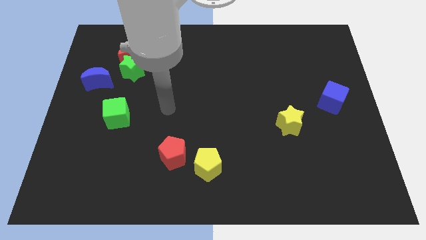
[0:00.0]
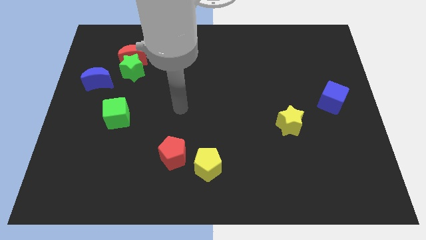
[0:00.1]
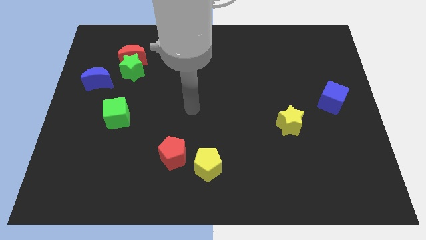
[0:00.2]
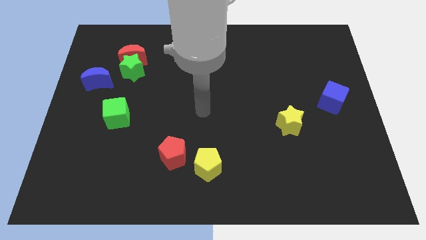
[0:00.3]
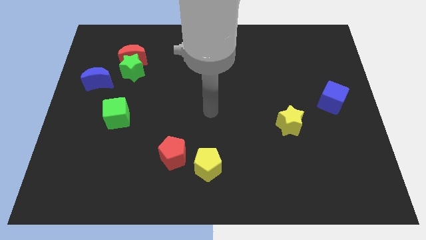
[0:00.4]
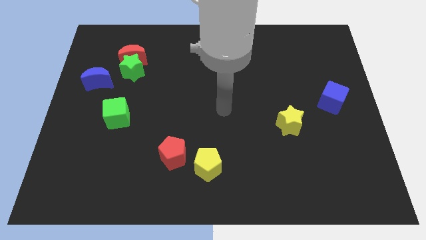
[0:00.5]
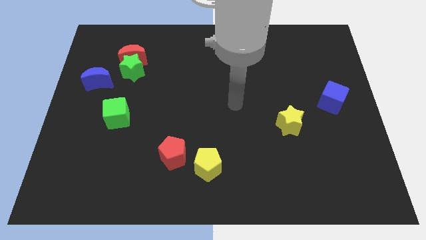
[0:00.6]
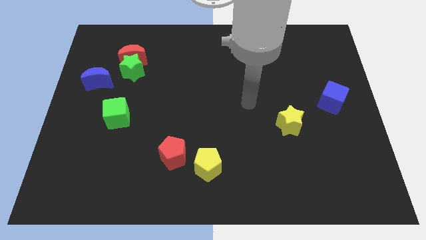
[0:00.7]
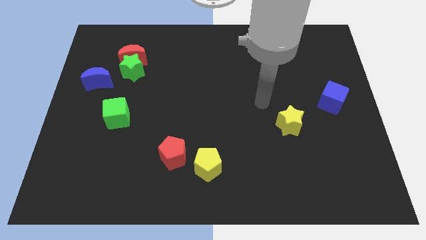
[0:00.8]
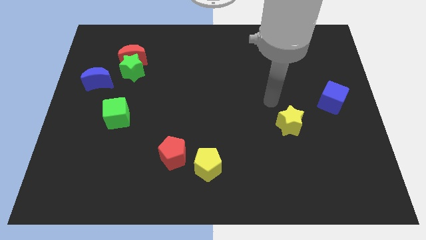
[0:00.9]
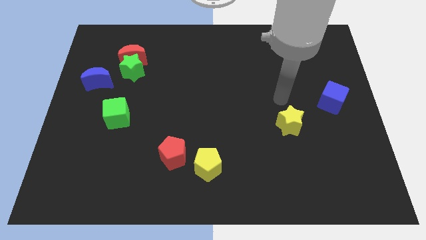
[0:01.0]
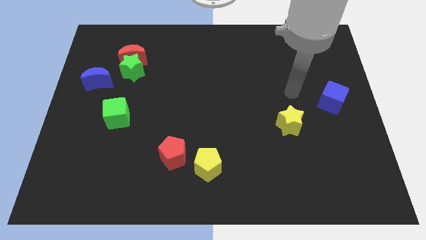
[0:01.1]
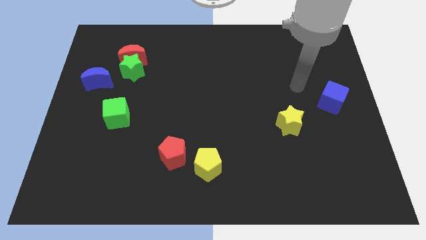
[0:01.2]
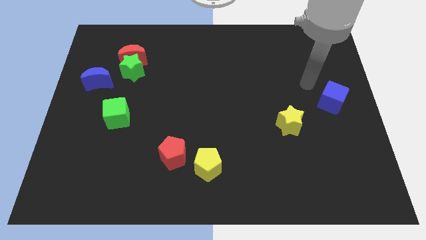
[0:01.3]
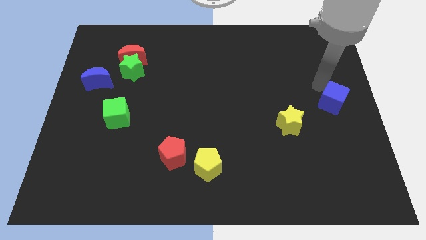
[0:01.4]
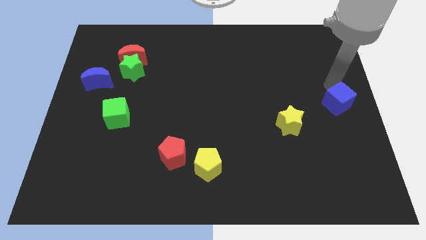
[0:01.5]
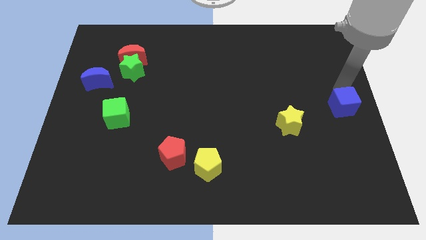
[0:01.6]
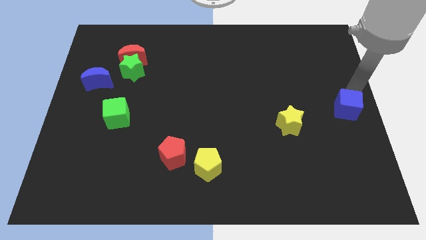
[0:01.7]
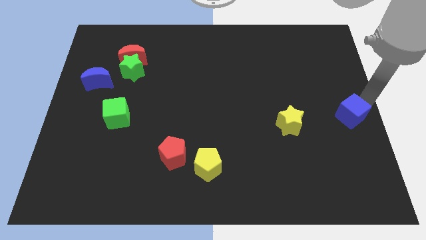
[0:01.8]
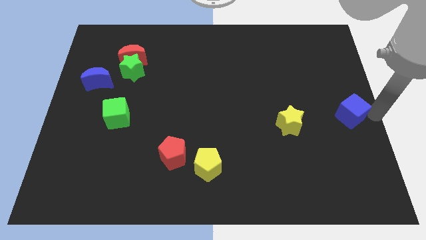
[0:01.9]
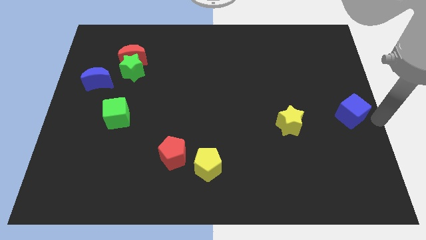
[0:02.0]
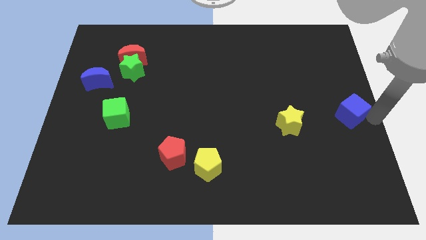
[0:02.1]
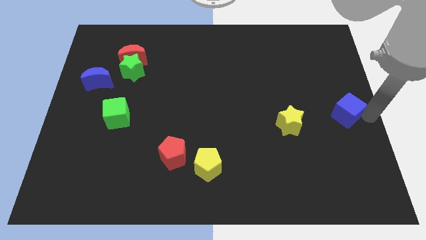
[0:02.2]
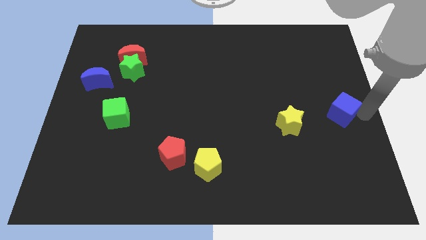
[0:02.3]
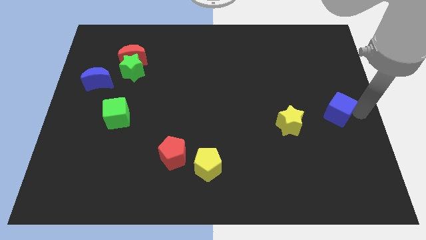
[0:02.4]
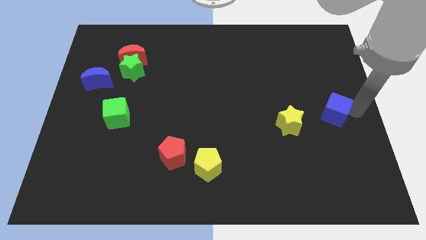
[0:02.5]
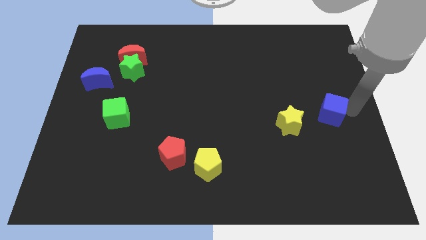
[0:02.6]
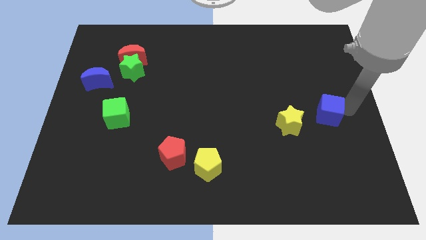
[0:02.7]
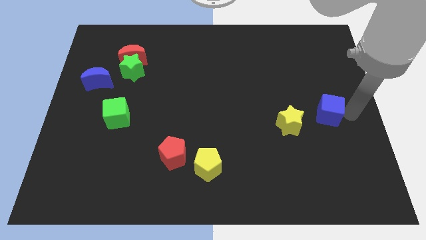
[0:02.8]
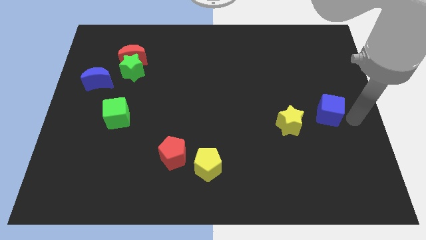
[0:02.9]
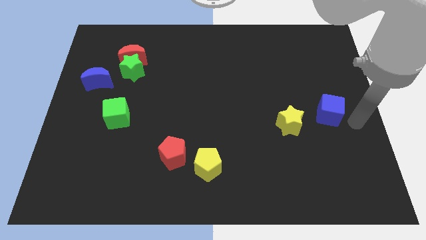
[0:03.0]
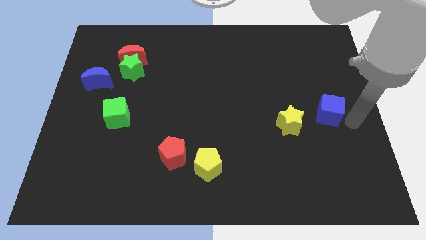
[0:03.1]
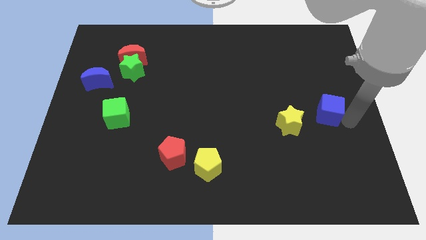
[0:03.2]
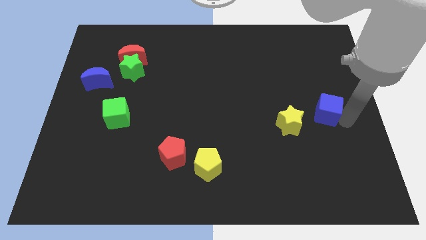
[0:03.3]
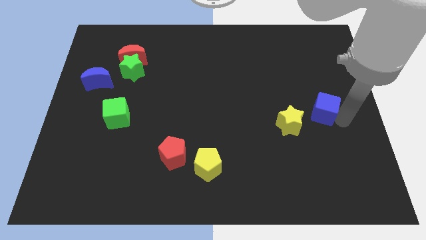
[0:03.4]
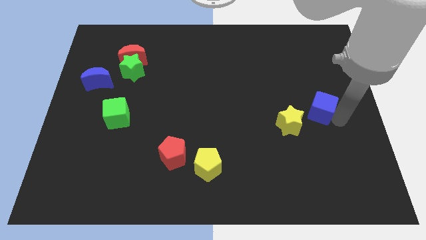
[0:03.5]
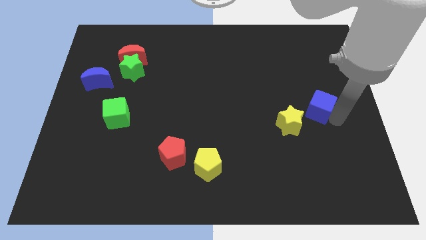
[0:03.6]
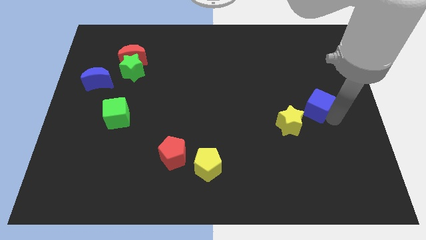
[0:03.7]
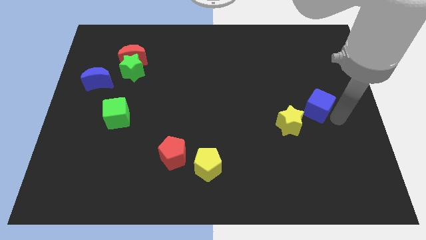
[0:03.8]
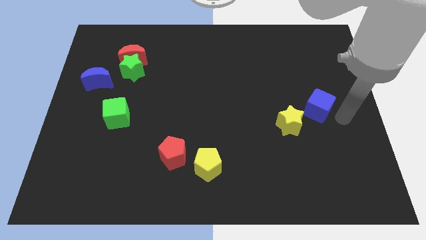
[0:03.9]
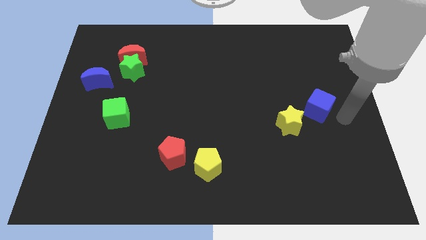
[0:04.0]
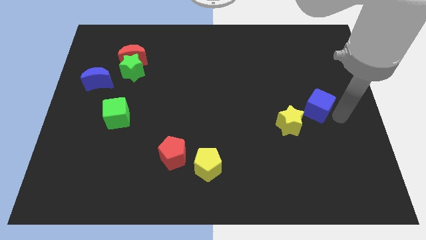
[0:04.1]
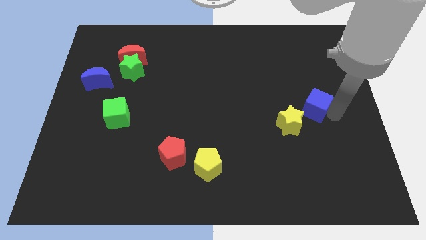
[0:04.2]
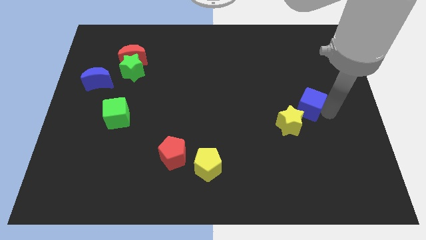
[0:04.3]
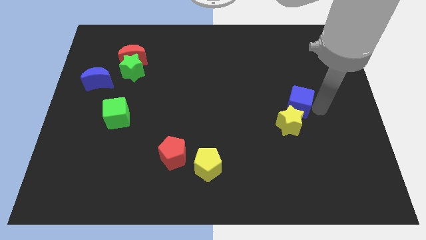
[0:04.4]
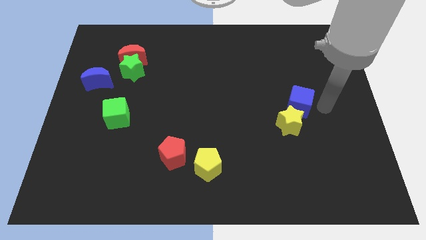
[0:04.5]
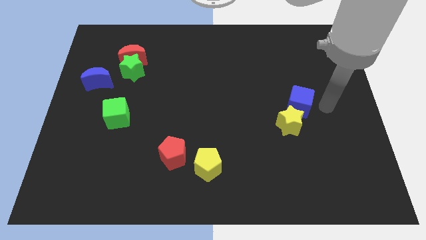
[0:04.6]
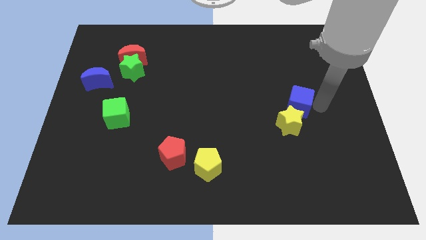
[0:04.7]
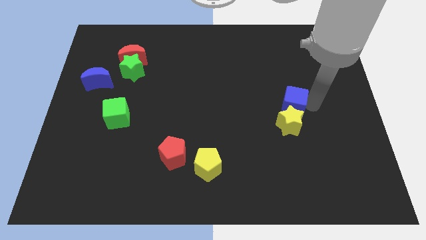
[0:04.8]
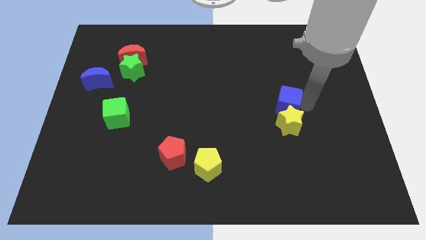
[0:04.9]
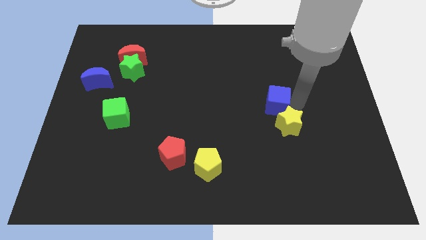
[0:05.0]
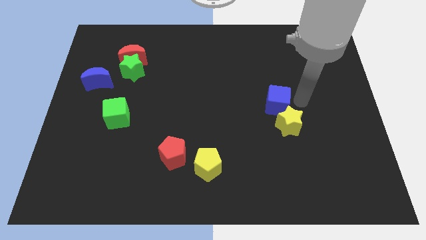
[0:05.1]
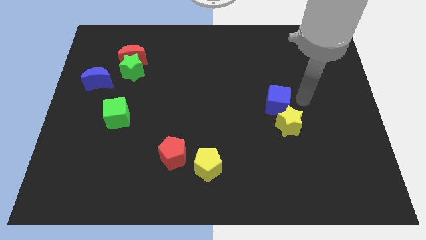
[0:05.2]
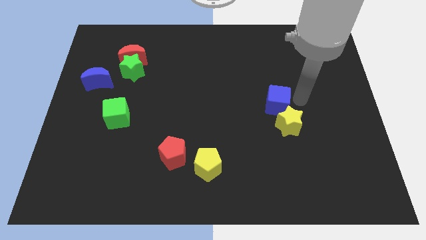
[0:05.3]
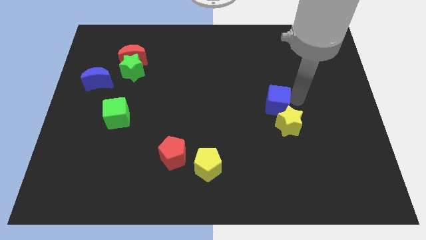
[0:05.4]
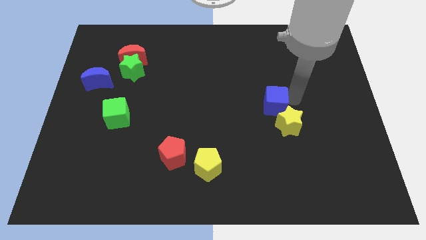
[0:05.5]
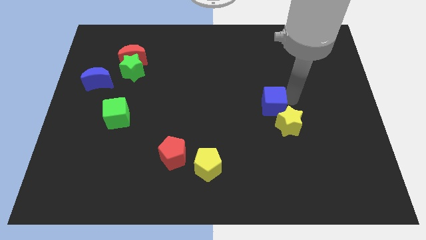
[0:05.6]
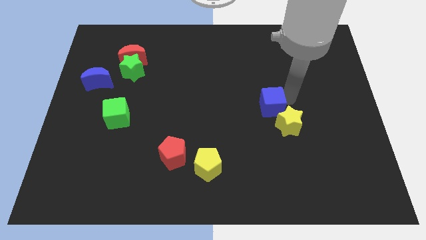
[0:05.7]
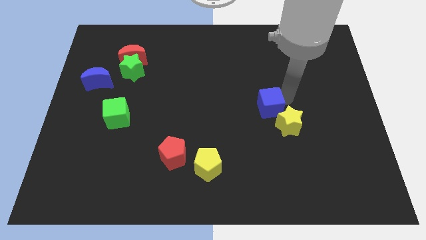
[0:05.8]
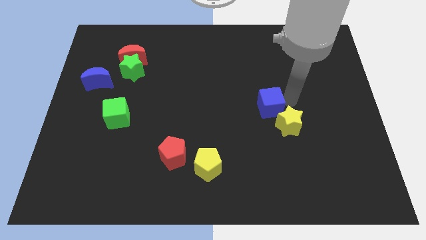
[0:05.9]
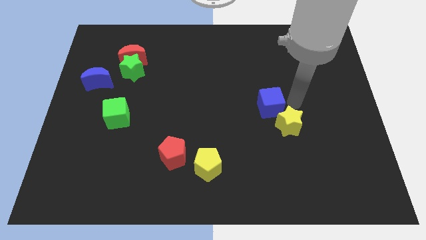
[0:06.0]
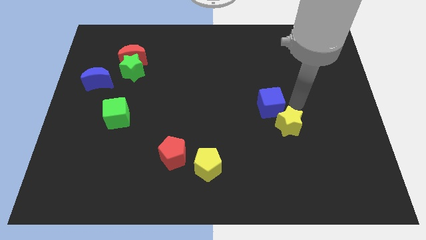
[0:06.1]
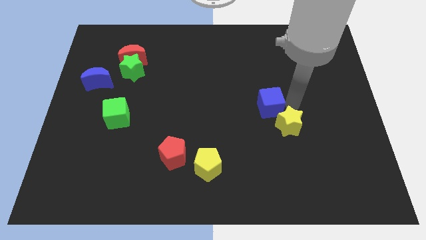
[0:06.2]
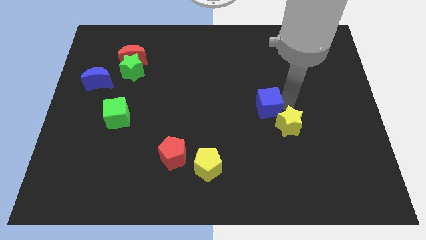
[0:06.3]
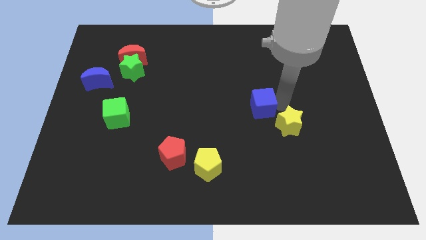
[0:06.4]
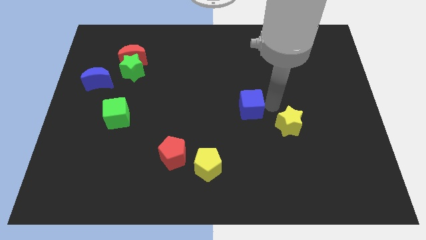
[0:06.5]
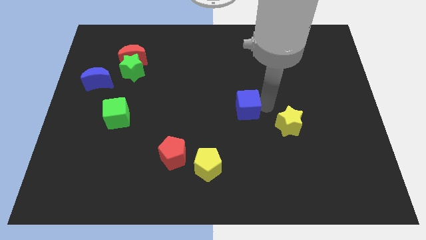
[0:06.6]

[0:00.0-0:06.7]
slide the blue cube left

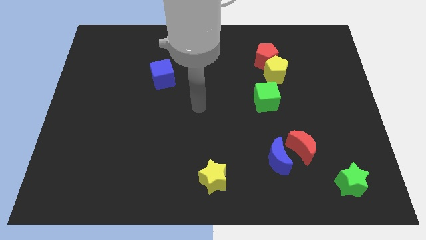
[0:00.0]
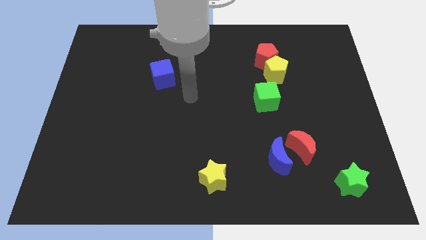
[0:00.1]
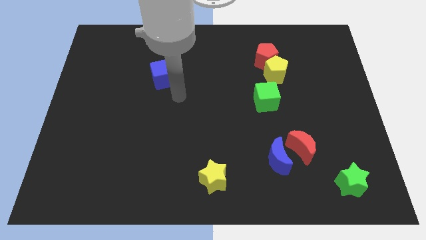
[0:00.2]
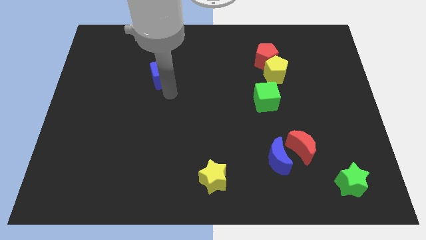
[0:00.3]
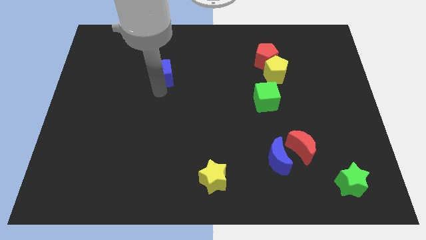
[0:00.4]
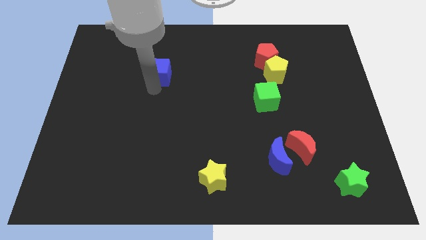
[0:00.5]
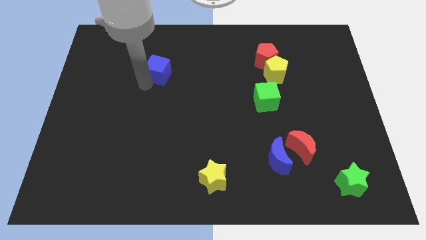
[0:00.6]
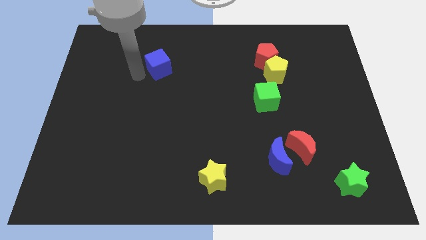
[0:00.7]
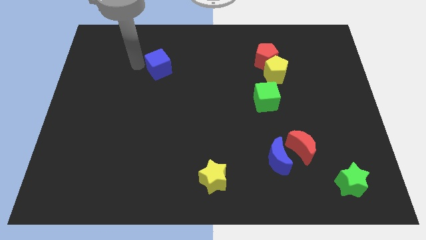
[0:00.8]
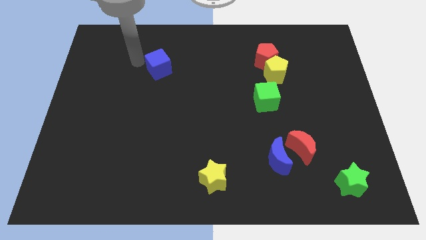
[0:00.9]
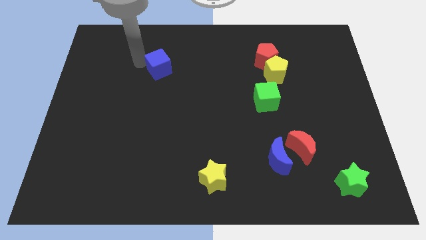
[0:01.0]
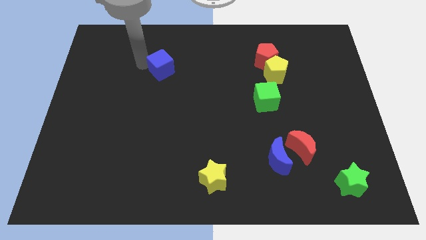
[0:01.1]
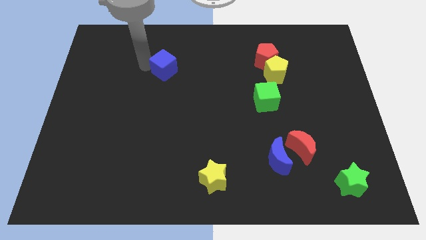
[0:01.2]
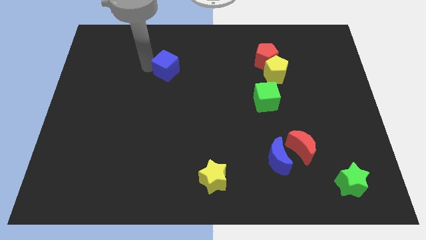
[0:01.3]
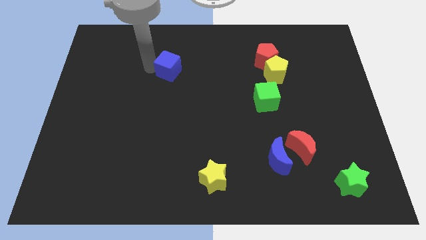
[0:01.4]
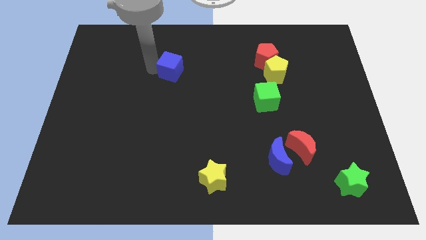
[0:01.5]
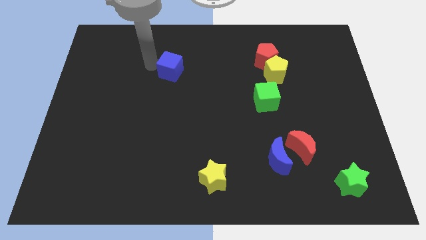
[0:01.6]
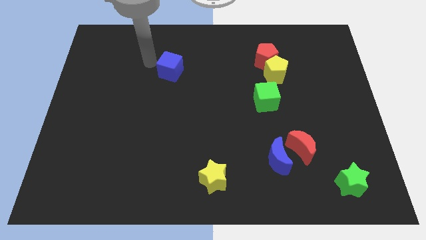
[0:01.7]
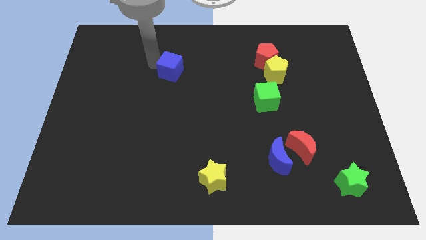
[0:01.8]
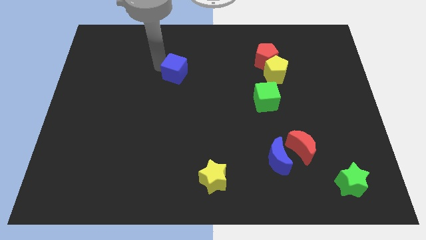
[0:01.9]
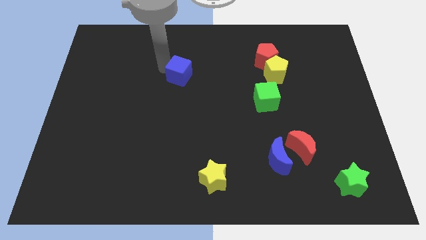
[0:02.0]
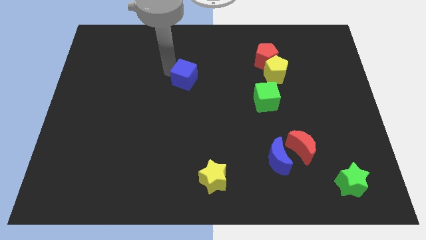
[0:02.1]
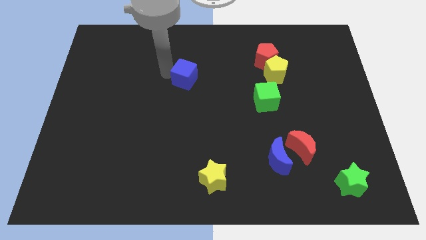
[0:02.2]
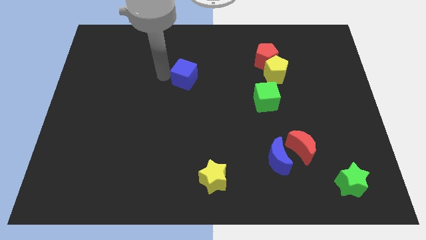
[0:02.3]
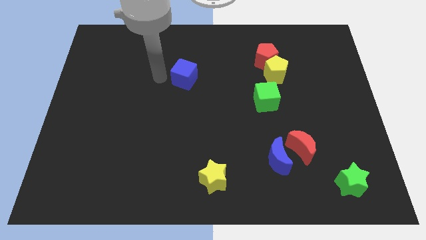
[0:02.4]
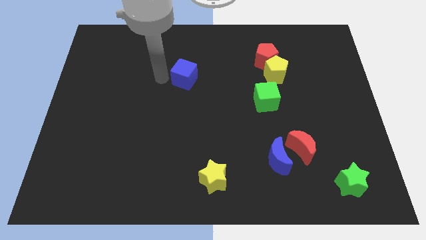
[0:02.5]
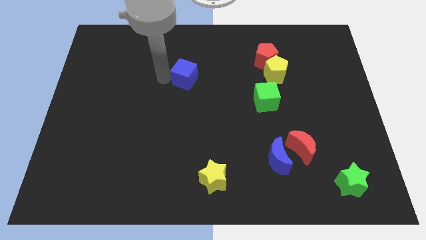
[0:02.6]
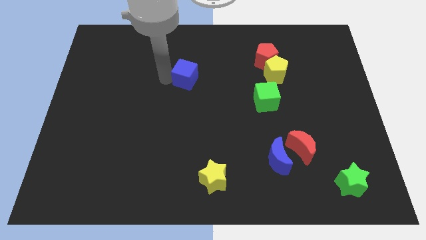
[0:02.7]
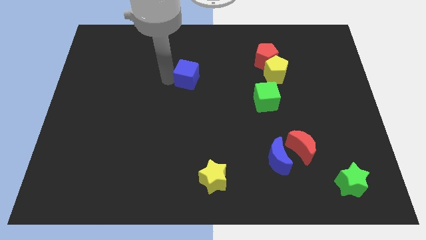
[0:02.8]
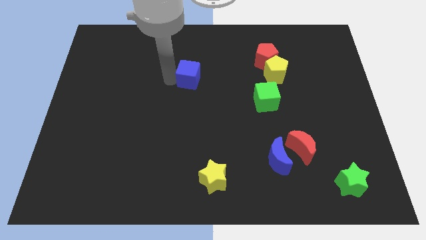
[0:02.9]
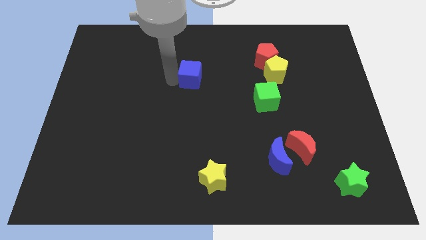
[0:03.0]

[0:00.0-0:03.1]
slide the blue cube right a little bit
